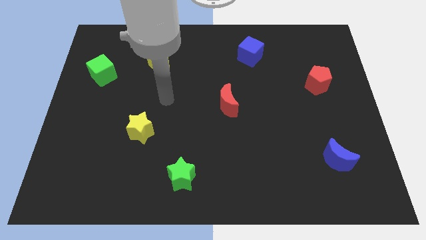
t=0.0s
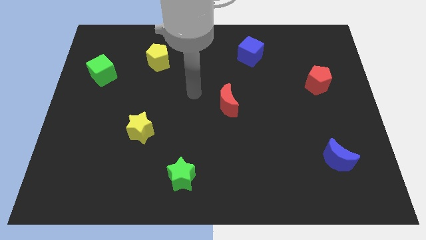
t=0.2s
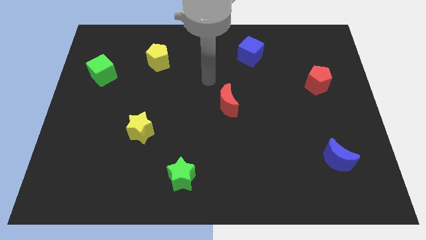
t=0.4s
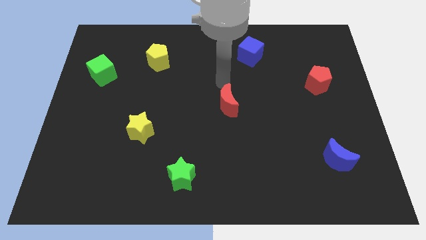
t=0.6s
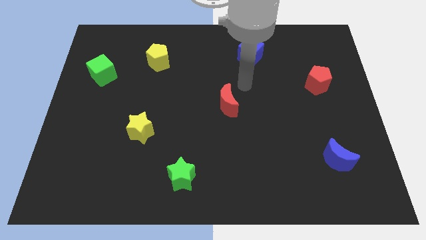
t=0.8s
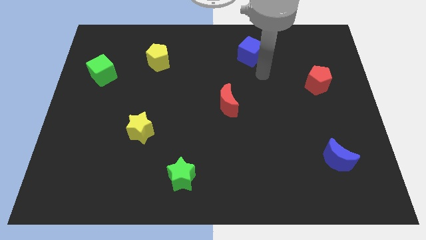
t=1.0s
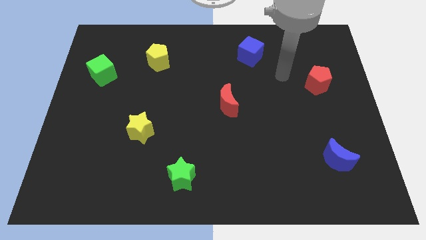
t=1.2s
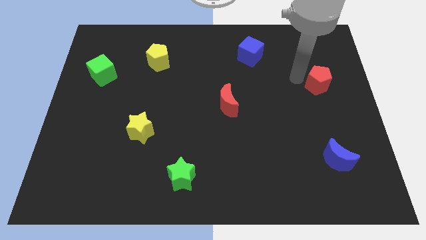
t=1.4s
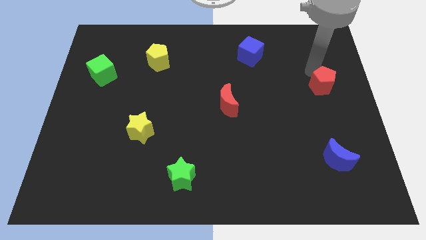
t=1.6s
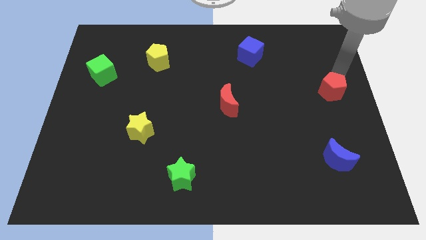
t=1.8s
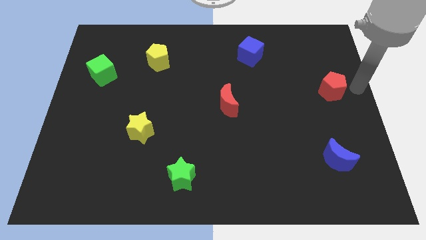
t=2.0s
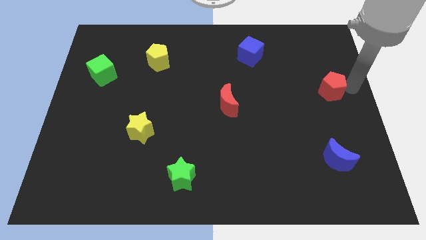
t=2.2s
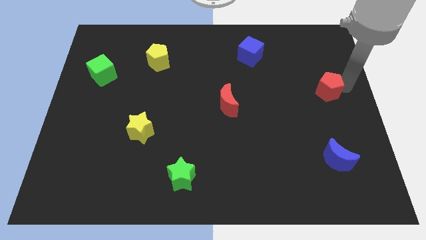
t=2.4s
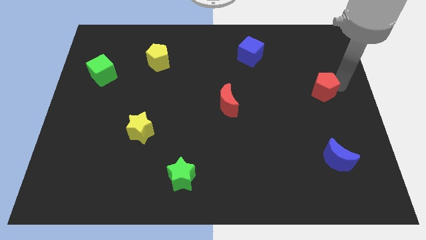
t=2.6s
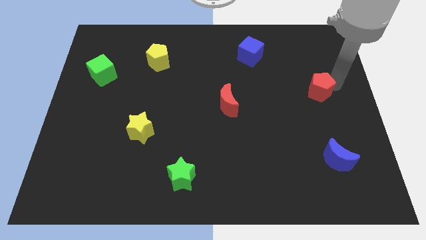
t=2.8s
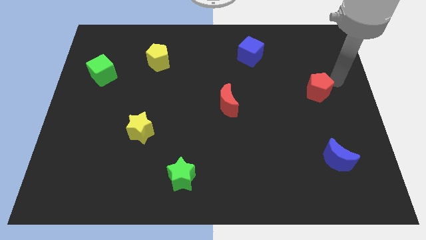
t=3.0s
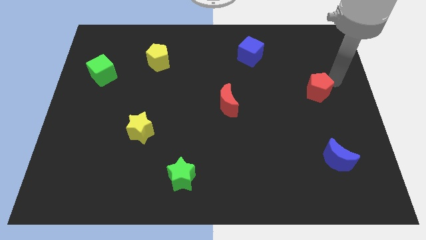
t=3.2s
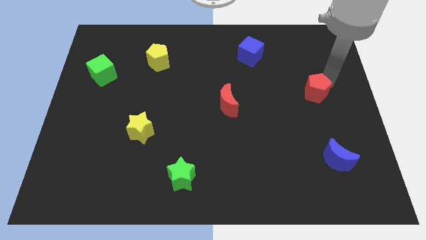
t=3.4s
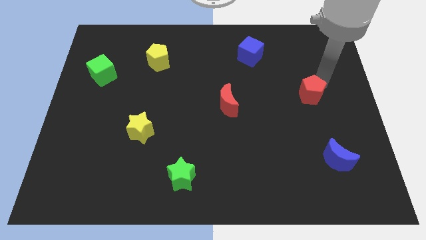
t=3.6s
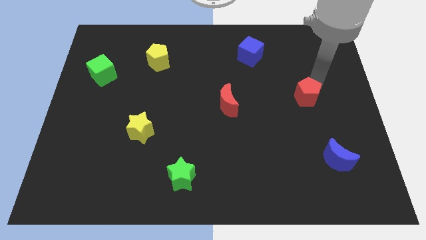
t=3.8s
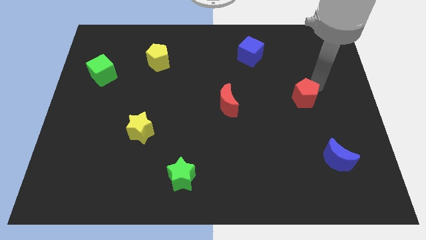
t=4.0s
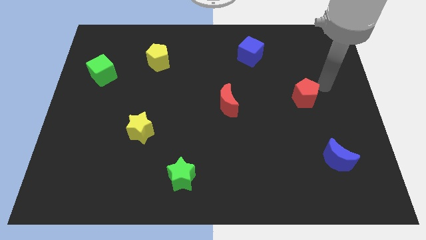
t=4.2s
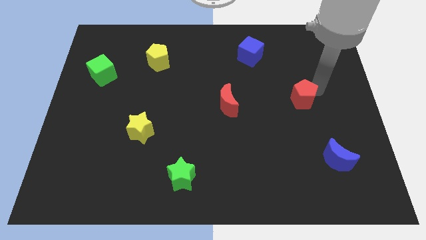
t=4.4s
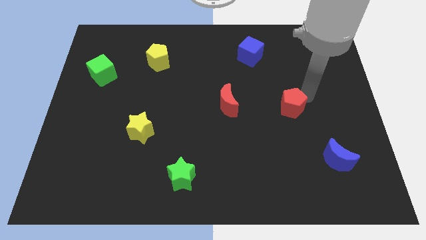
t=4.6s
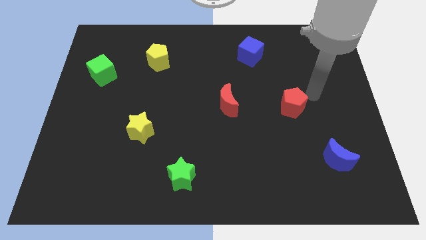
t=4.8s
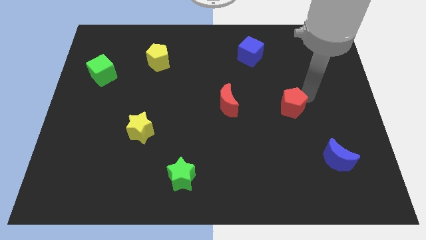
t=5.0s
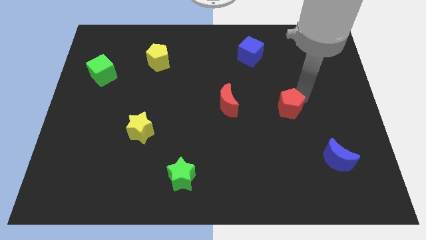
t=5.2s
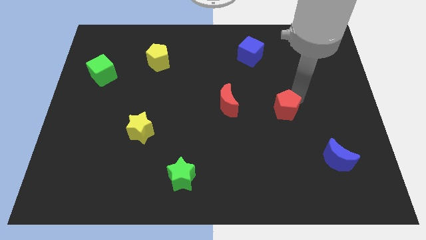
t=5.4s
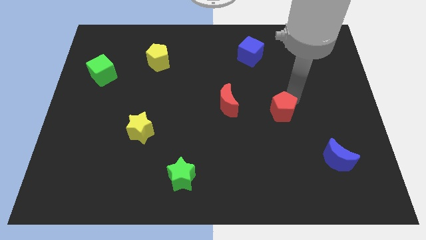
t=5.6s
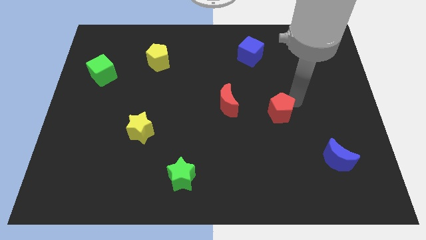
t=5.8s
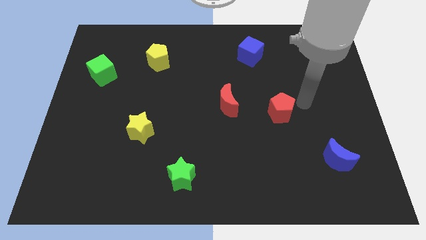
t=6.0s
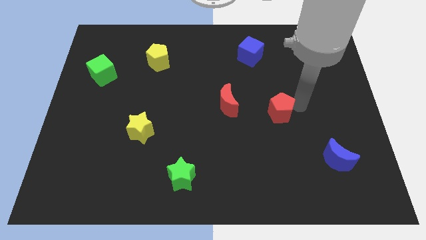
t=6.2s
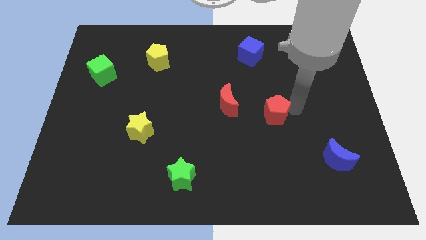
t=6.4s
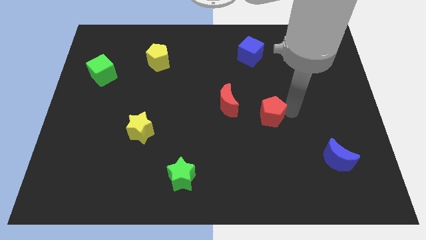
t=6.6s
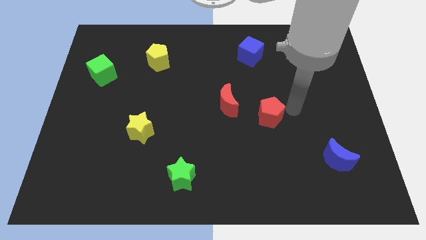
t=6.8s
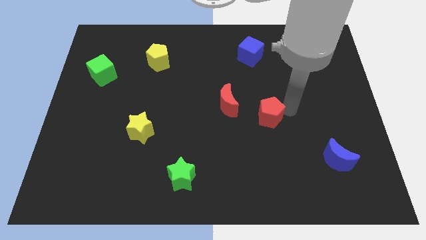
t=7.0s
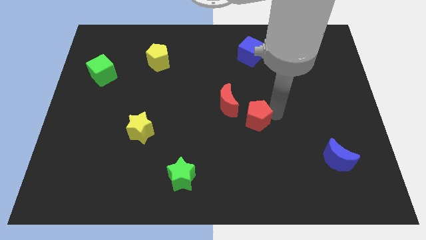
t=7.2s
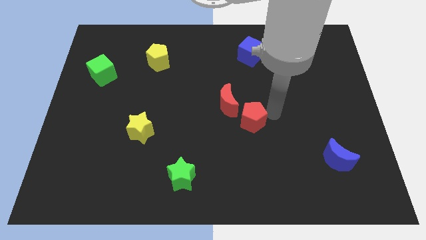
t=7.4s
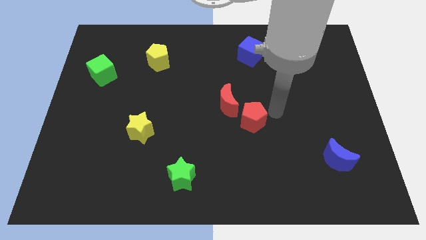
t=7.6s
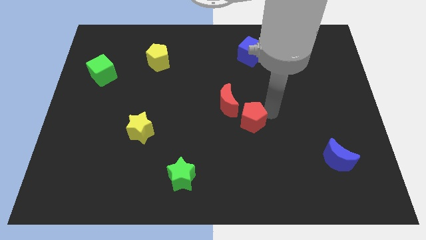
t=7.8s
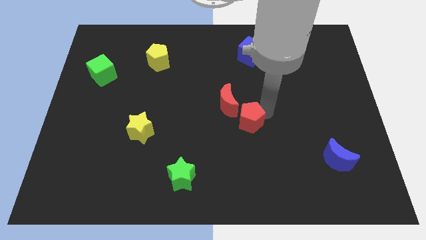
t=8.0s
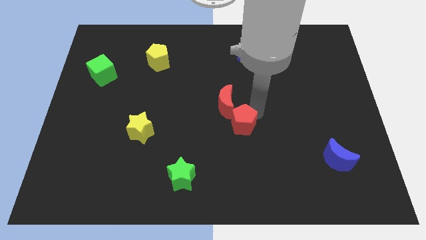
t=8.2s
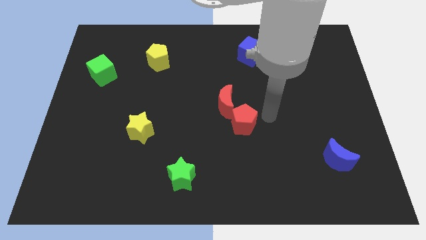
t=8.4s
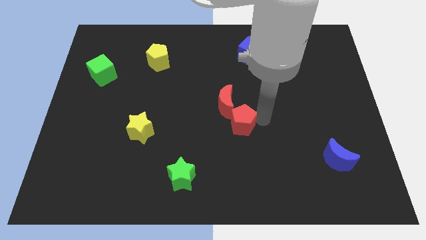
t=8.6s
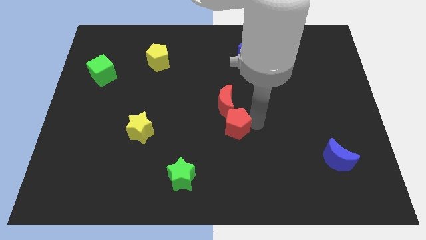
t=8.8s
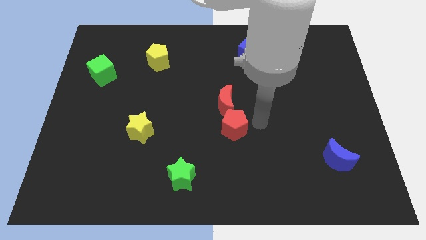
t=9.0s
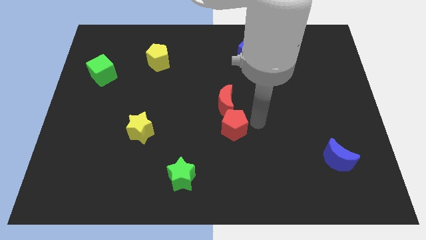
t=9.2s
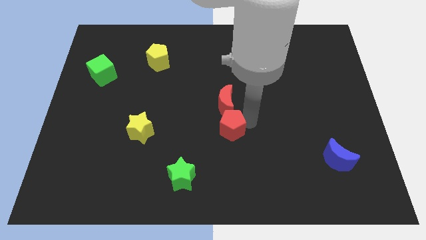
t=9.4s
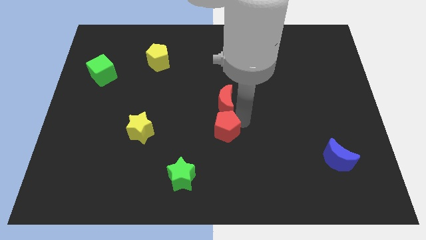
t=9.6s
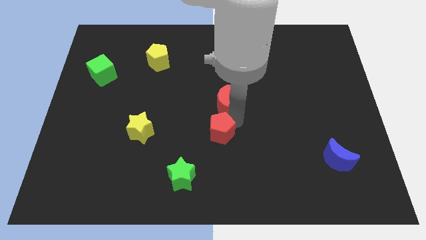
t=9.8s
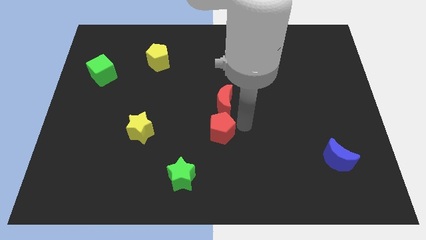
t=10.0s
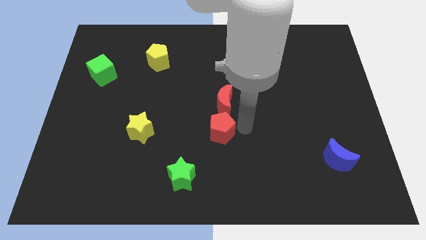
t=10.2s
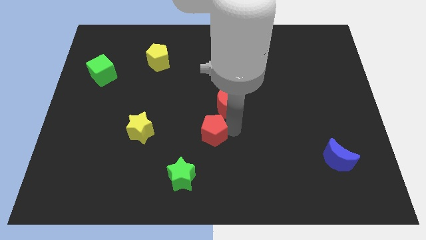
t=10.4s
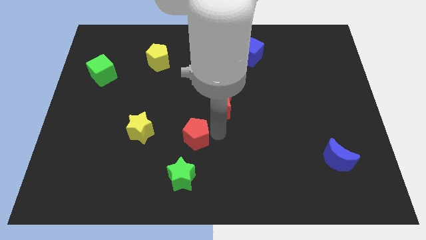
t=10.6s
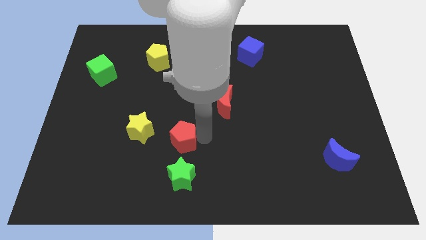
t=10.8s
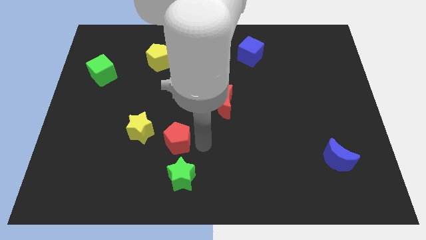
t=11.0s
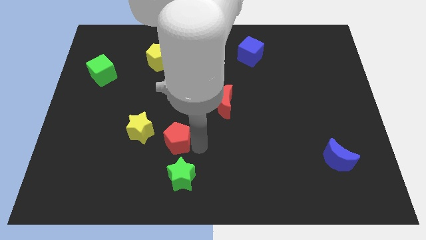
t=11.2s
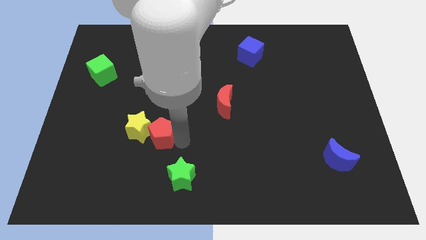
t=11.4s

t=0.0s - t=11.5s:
put the red pentagon close to the yellow star

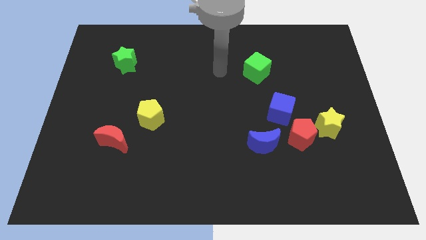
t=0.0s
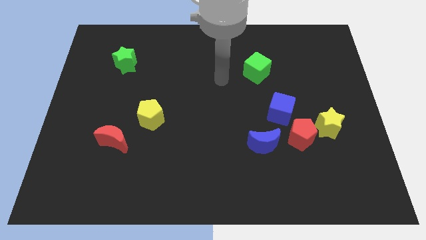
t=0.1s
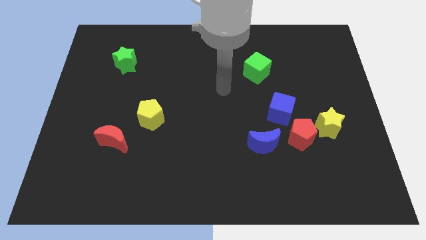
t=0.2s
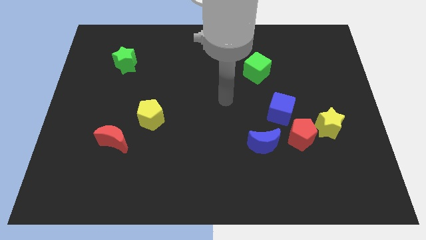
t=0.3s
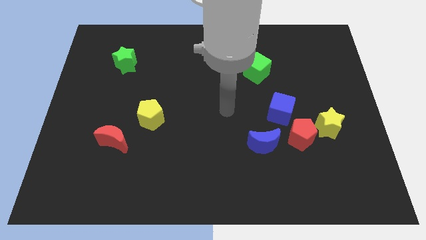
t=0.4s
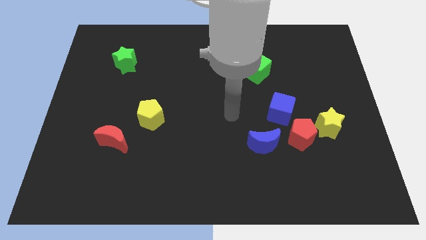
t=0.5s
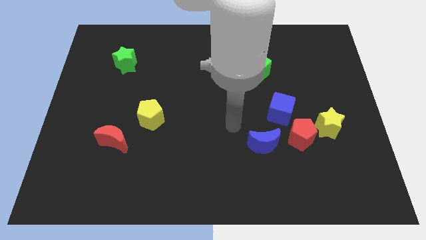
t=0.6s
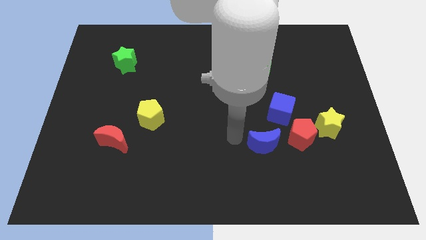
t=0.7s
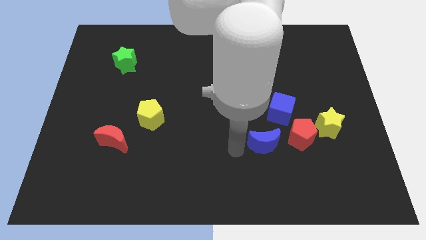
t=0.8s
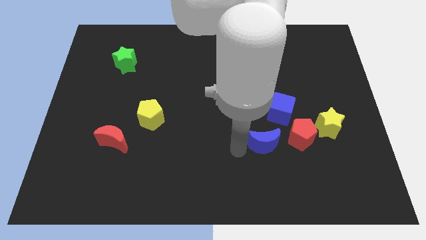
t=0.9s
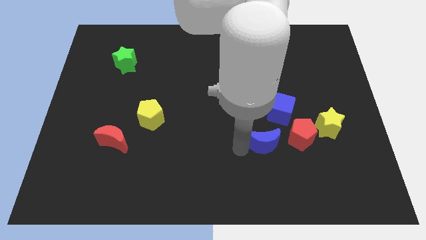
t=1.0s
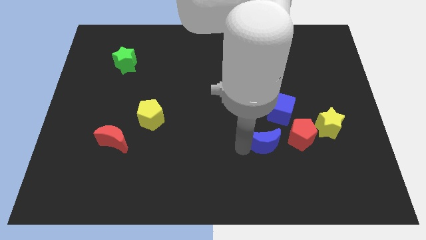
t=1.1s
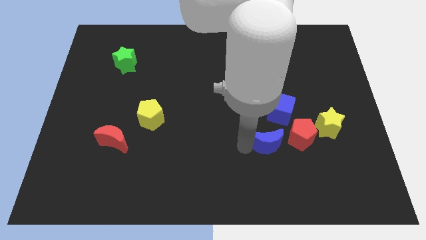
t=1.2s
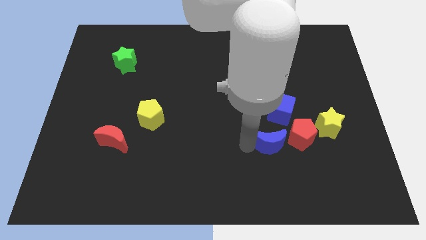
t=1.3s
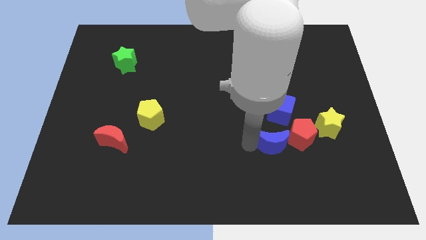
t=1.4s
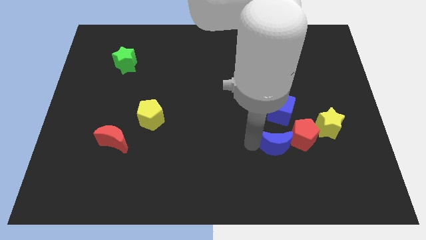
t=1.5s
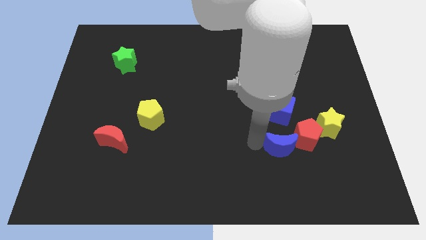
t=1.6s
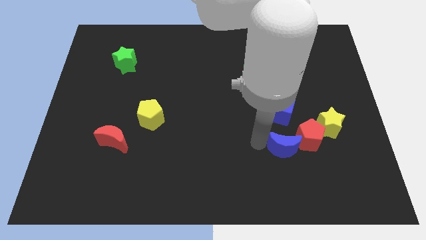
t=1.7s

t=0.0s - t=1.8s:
move the blue moon towards the red pentagon
